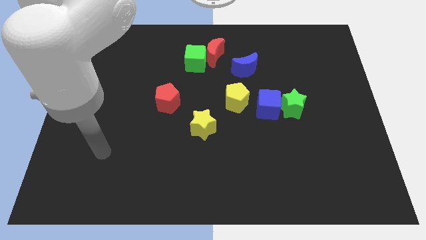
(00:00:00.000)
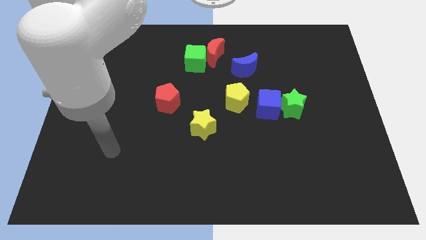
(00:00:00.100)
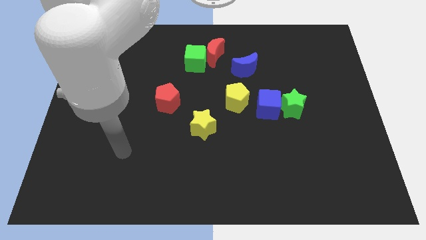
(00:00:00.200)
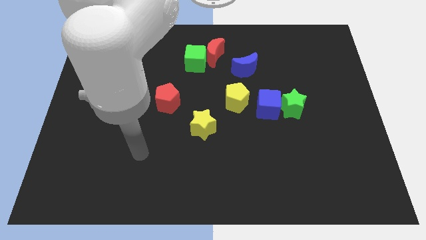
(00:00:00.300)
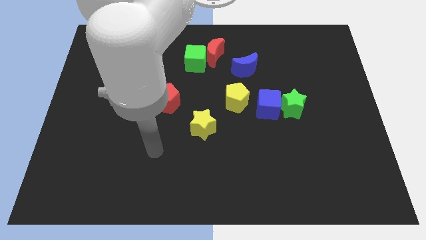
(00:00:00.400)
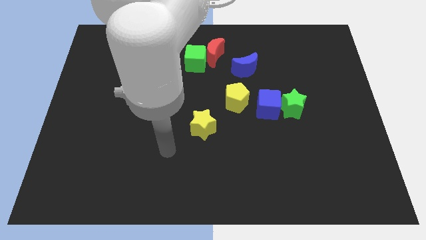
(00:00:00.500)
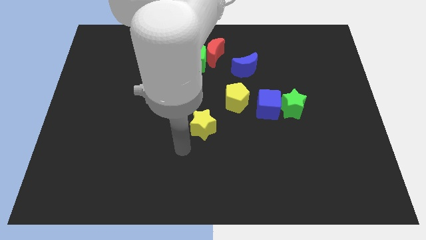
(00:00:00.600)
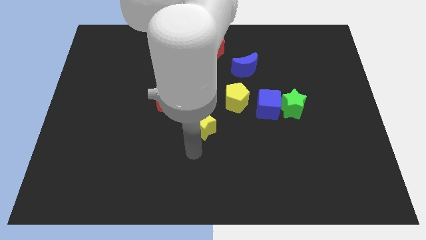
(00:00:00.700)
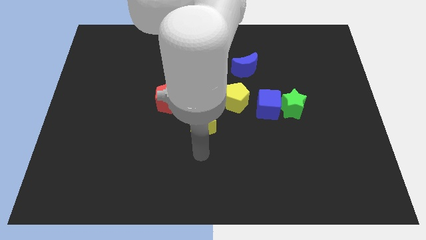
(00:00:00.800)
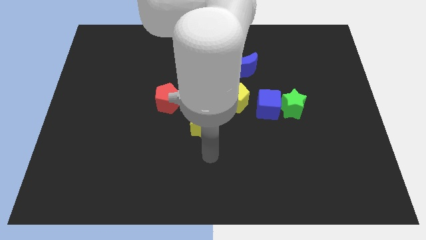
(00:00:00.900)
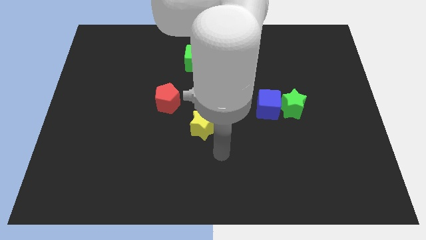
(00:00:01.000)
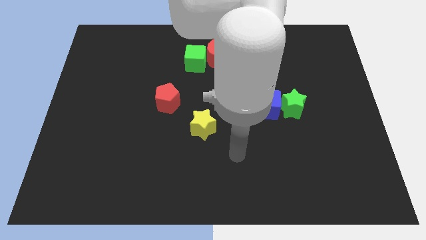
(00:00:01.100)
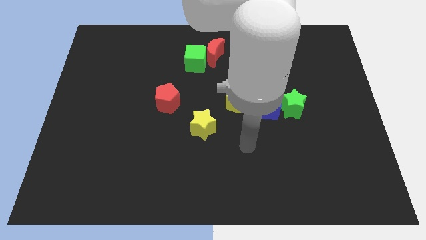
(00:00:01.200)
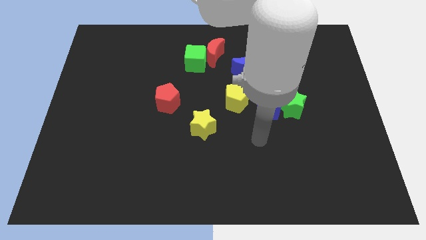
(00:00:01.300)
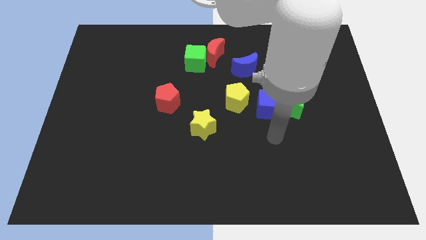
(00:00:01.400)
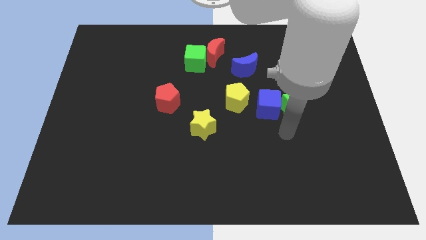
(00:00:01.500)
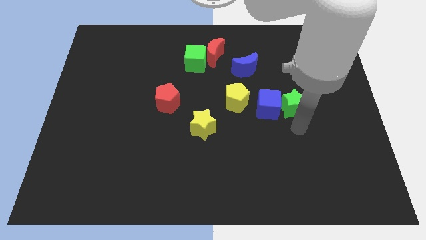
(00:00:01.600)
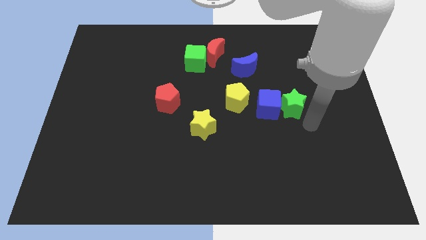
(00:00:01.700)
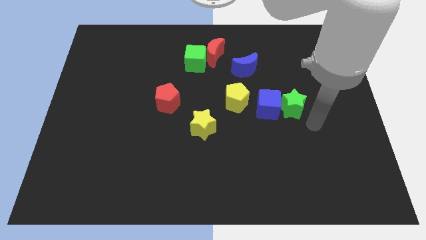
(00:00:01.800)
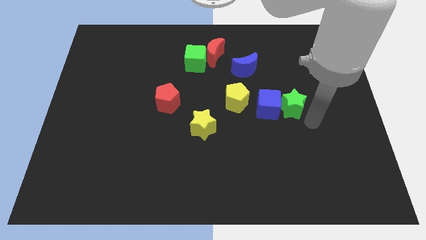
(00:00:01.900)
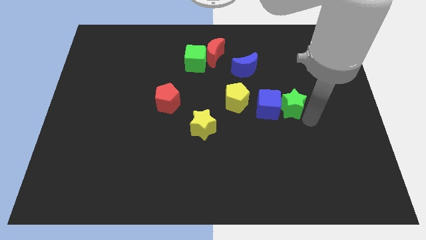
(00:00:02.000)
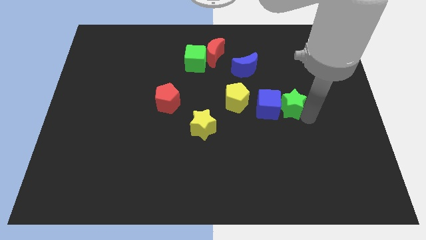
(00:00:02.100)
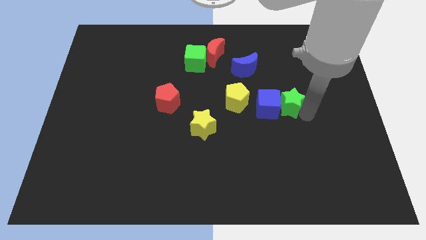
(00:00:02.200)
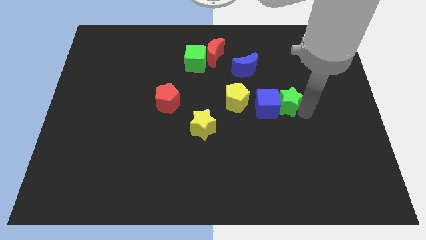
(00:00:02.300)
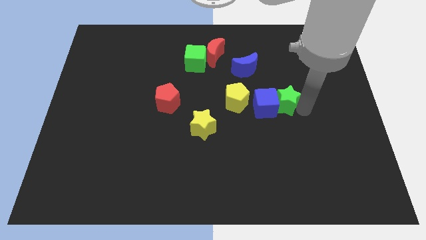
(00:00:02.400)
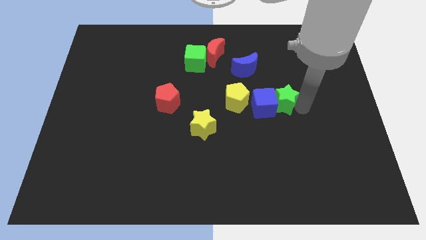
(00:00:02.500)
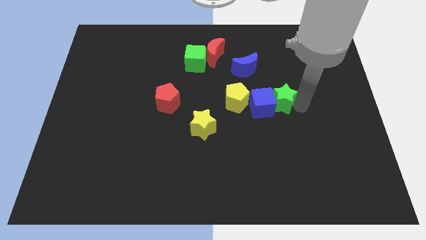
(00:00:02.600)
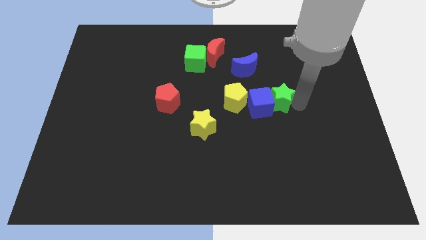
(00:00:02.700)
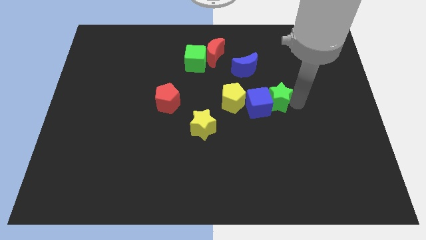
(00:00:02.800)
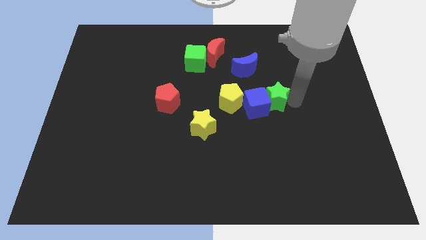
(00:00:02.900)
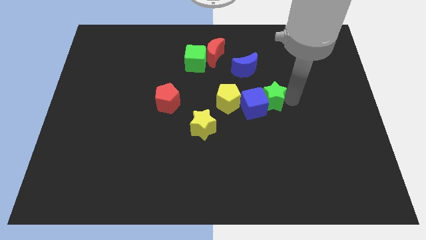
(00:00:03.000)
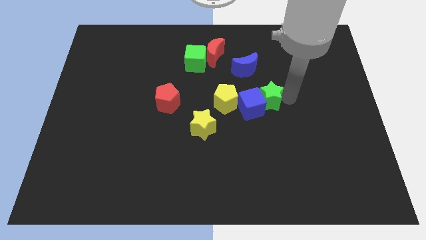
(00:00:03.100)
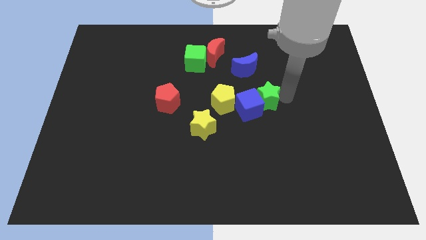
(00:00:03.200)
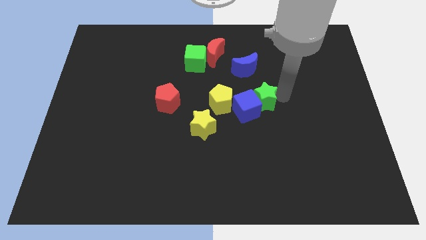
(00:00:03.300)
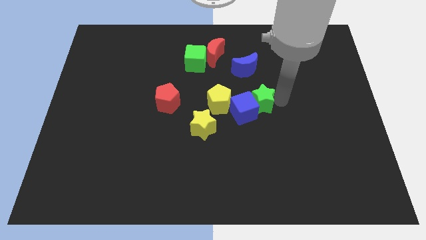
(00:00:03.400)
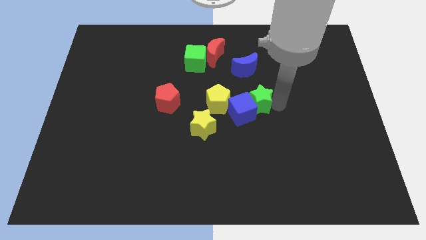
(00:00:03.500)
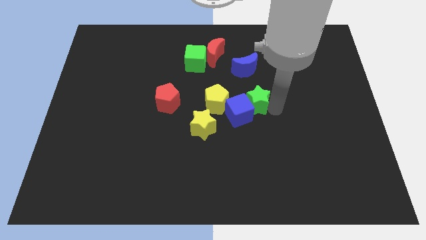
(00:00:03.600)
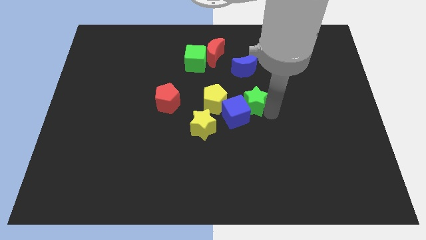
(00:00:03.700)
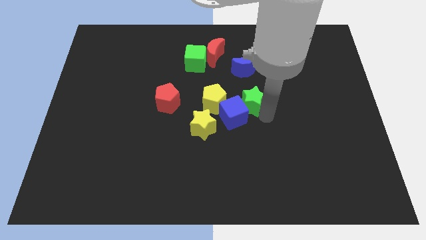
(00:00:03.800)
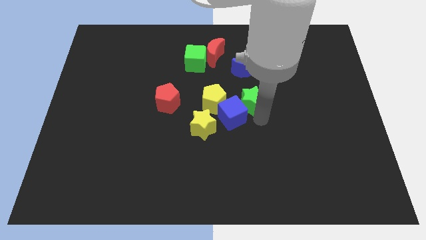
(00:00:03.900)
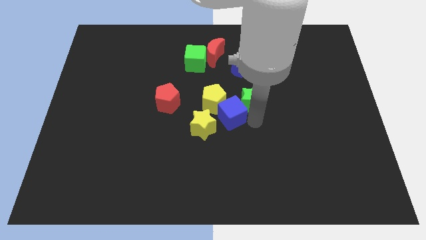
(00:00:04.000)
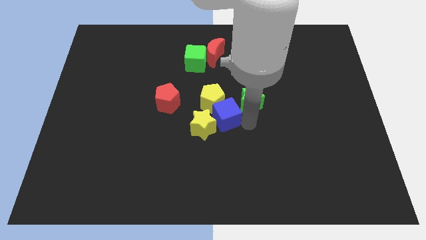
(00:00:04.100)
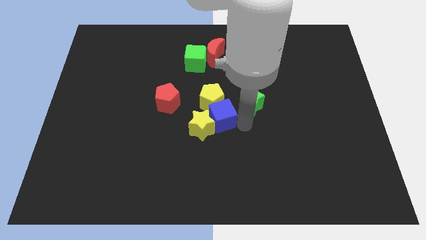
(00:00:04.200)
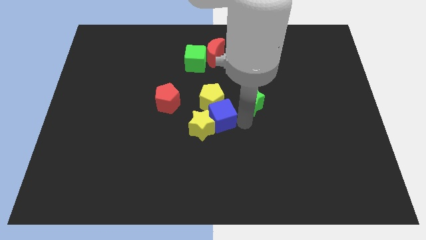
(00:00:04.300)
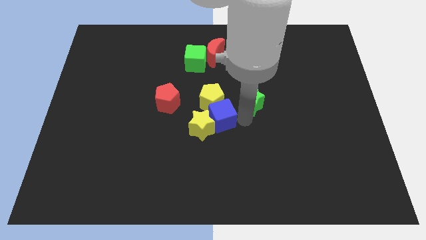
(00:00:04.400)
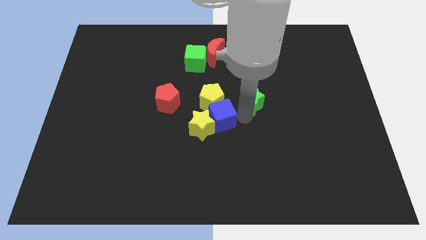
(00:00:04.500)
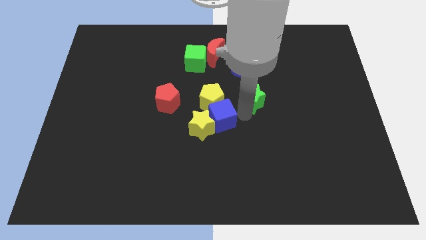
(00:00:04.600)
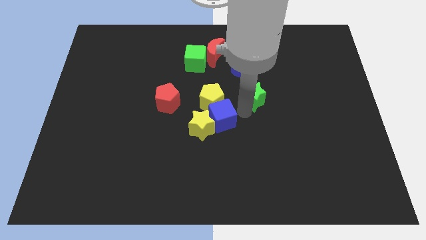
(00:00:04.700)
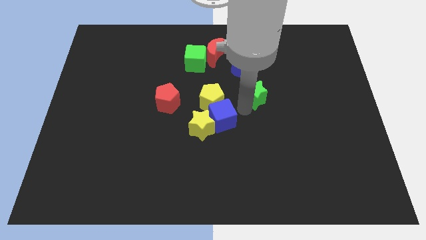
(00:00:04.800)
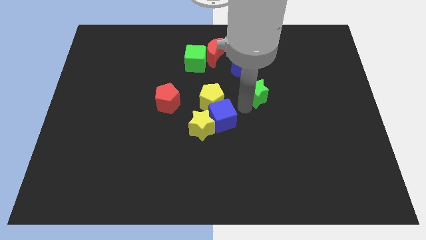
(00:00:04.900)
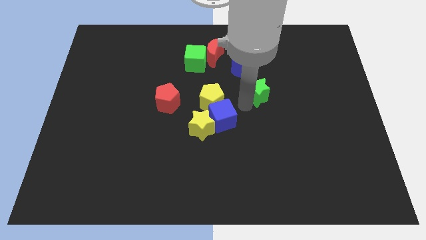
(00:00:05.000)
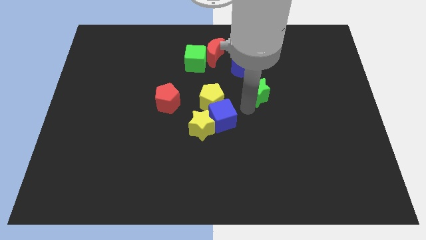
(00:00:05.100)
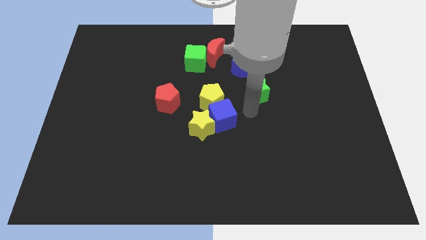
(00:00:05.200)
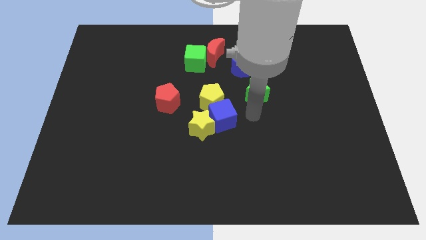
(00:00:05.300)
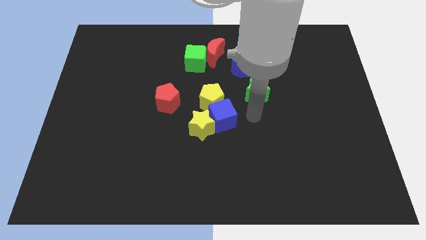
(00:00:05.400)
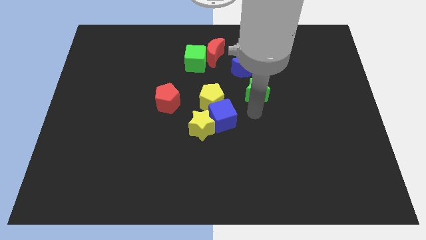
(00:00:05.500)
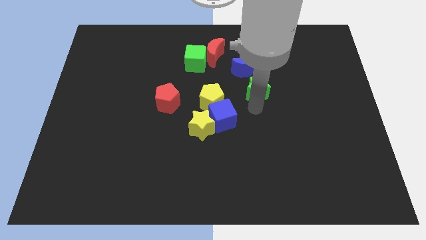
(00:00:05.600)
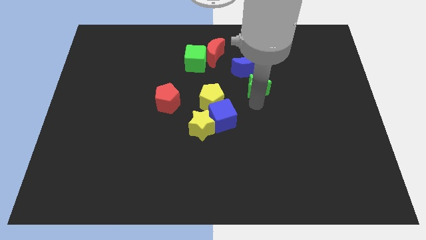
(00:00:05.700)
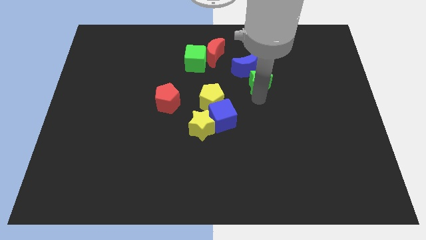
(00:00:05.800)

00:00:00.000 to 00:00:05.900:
put the green star towards the blue moon

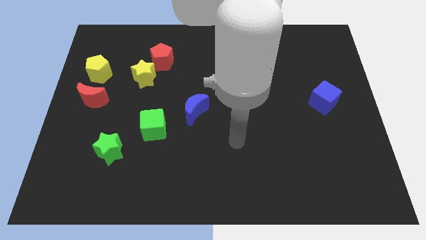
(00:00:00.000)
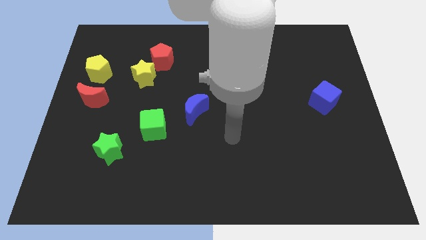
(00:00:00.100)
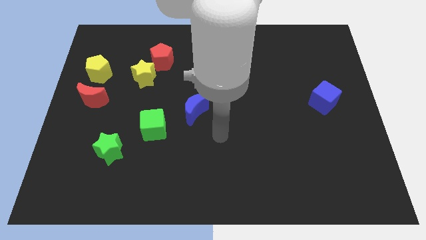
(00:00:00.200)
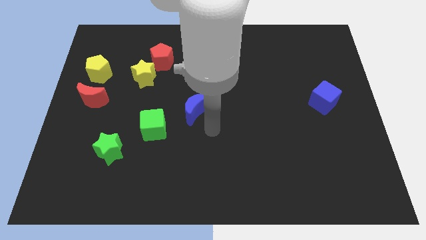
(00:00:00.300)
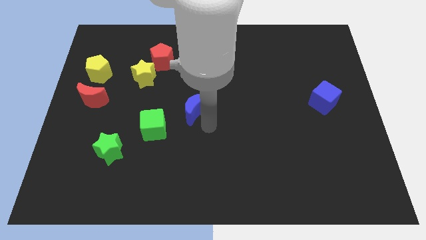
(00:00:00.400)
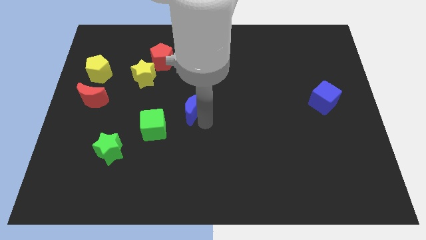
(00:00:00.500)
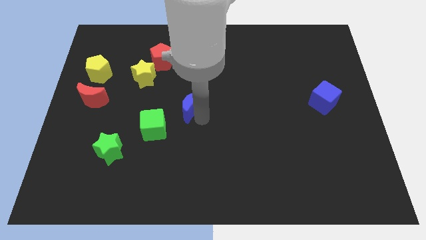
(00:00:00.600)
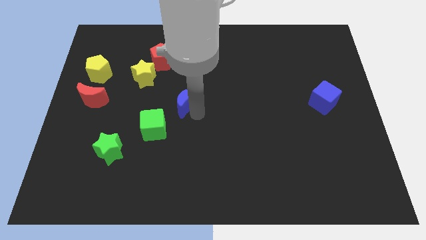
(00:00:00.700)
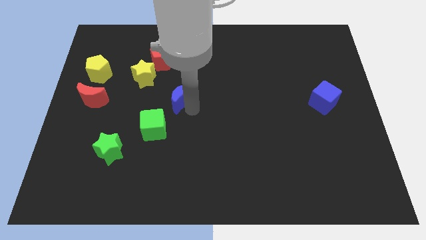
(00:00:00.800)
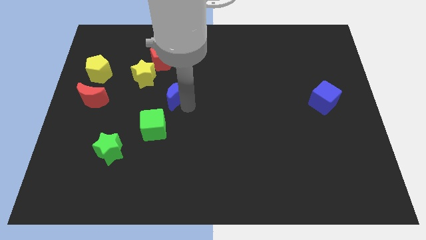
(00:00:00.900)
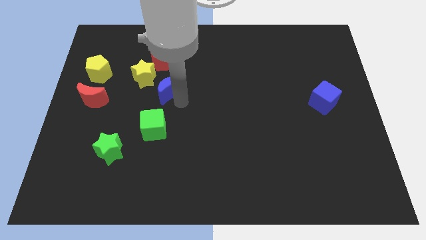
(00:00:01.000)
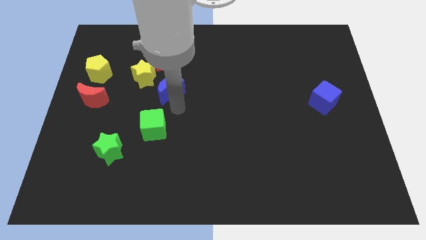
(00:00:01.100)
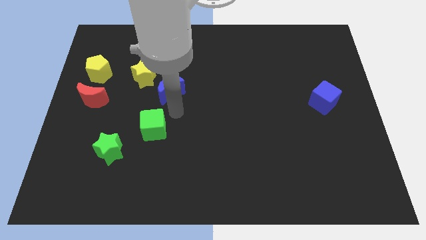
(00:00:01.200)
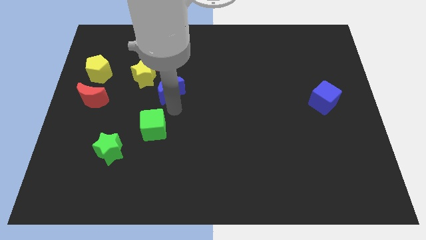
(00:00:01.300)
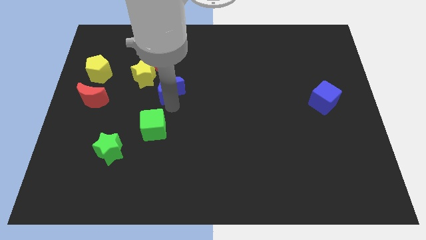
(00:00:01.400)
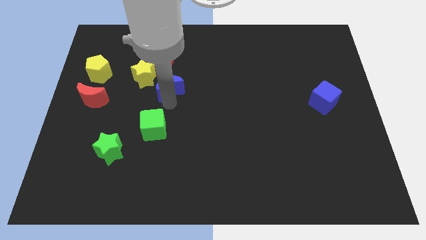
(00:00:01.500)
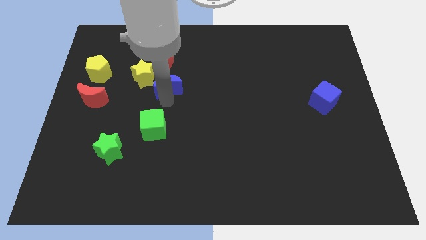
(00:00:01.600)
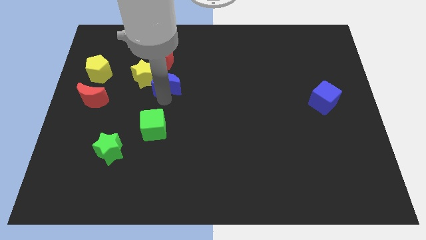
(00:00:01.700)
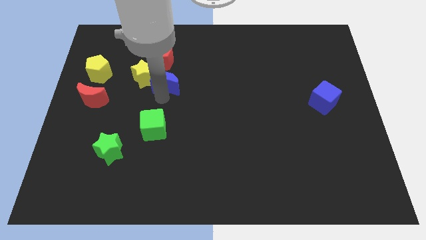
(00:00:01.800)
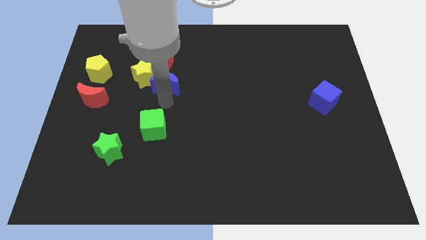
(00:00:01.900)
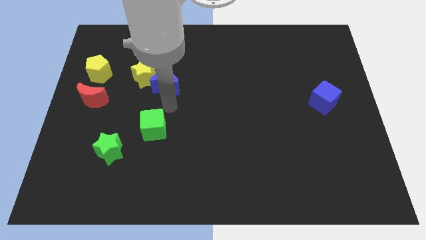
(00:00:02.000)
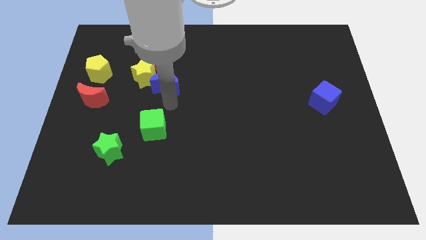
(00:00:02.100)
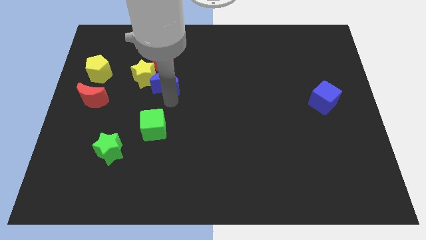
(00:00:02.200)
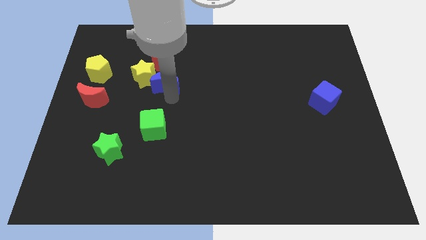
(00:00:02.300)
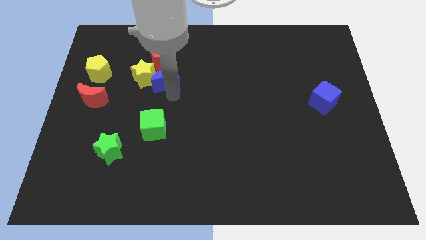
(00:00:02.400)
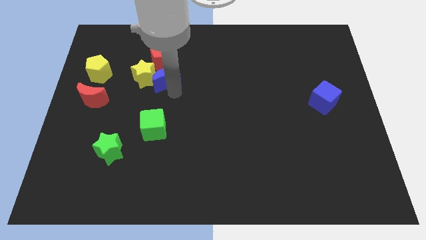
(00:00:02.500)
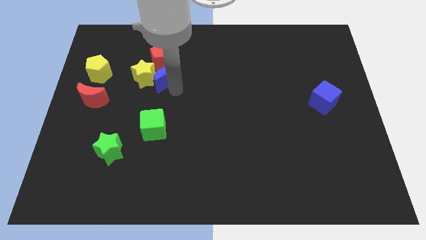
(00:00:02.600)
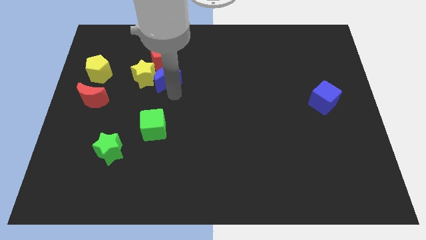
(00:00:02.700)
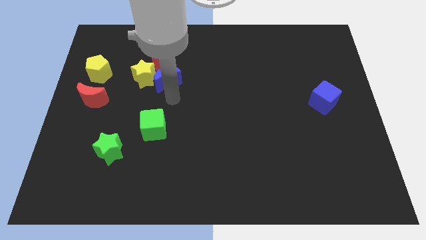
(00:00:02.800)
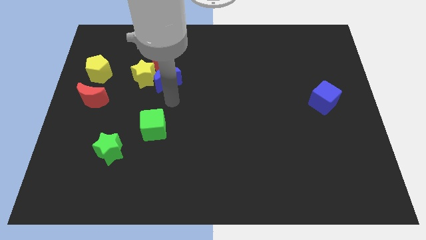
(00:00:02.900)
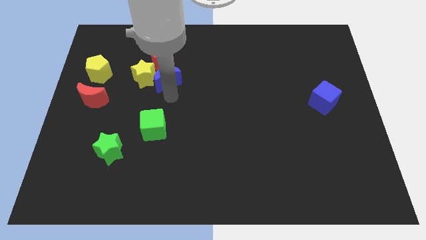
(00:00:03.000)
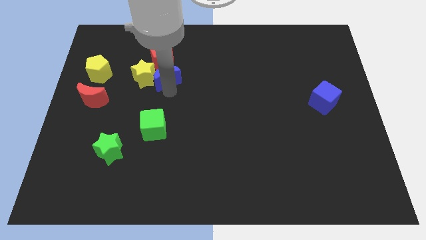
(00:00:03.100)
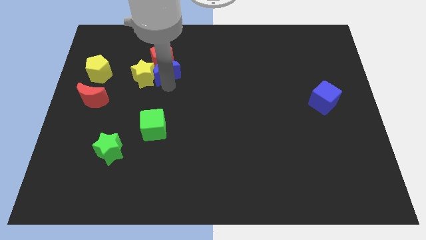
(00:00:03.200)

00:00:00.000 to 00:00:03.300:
slide the blue moon next to the red pentagon
